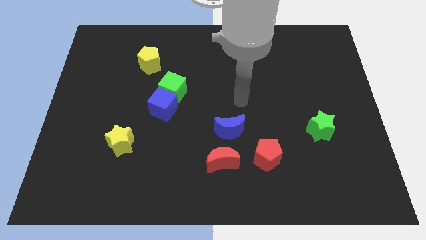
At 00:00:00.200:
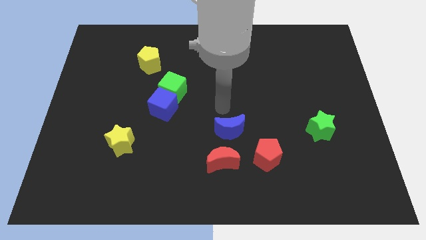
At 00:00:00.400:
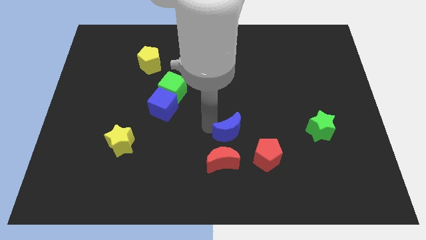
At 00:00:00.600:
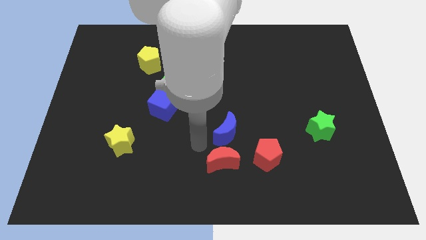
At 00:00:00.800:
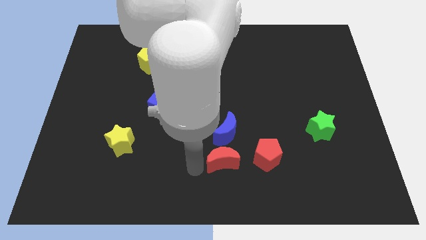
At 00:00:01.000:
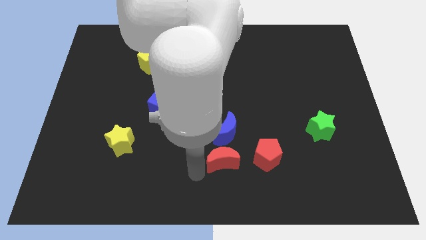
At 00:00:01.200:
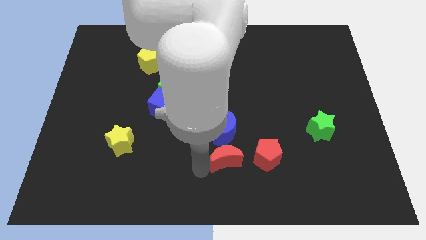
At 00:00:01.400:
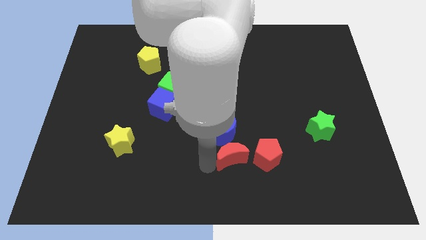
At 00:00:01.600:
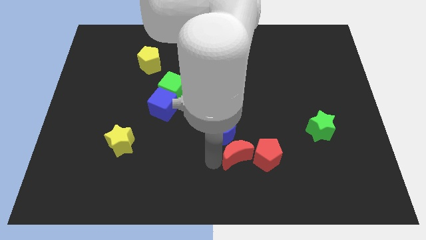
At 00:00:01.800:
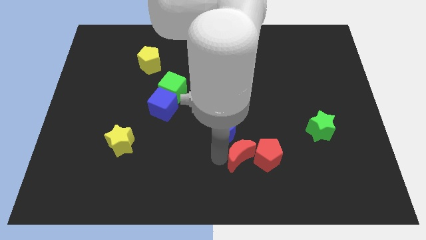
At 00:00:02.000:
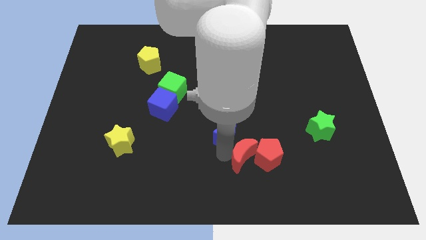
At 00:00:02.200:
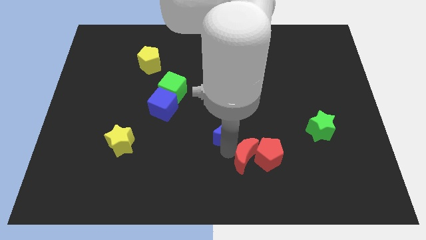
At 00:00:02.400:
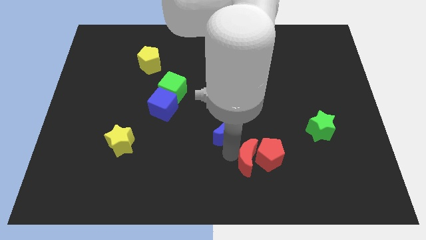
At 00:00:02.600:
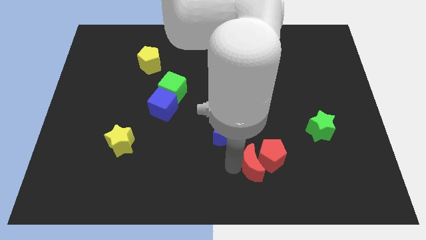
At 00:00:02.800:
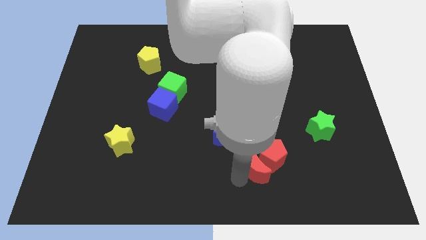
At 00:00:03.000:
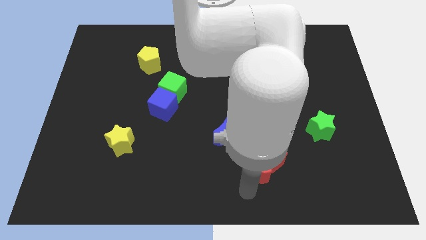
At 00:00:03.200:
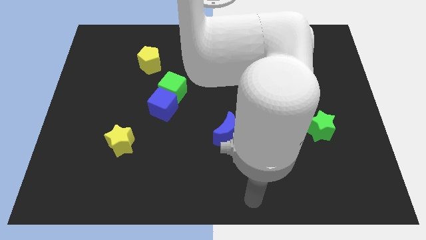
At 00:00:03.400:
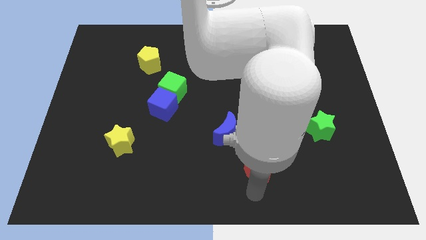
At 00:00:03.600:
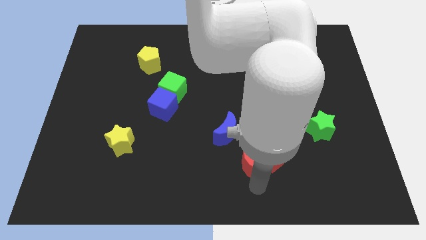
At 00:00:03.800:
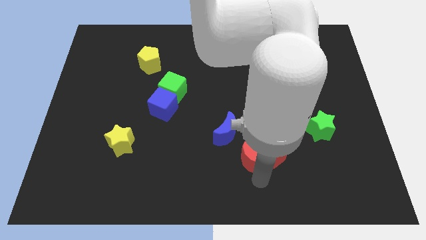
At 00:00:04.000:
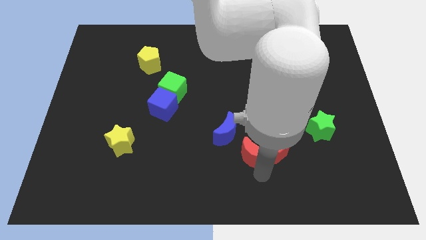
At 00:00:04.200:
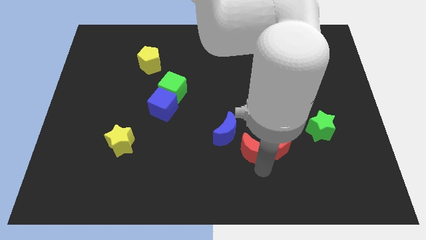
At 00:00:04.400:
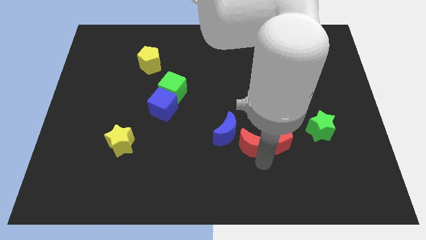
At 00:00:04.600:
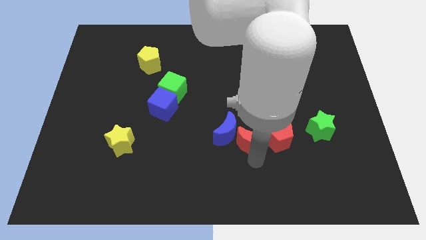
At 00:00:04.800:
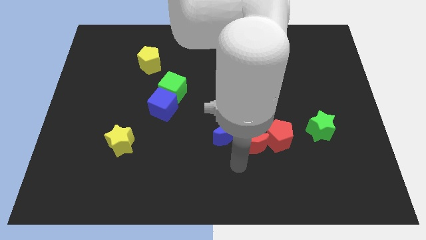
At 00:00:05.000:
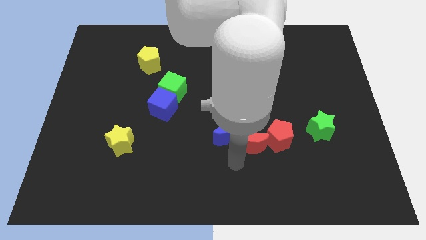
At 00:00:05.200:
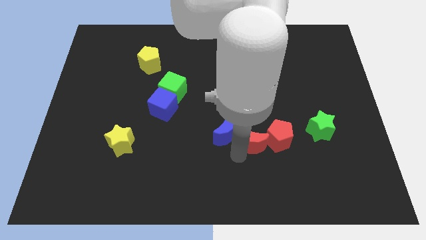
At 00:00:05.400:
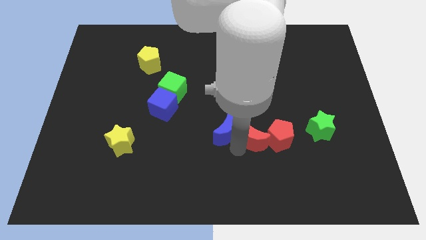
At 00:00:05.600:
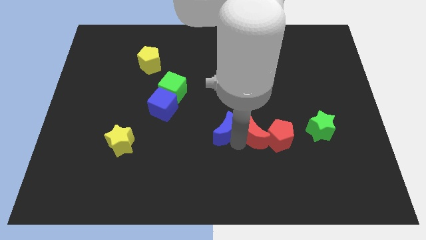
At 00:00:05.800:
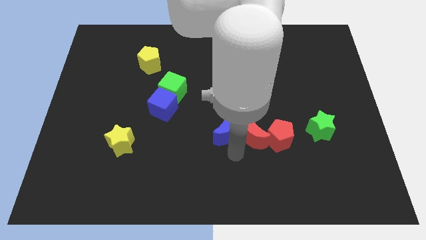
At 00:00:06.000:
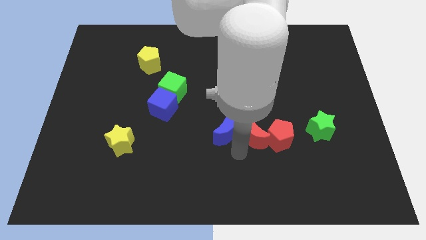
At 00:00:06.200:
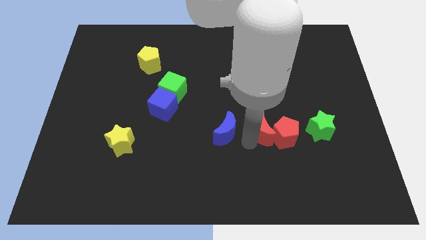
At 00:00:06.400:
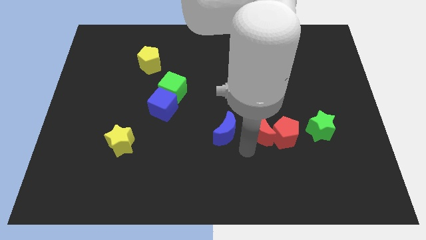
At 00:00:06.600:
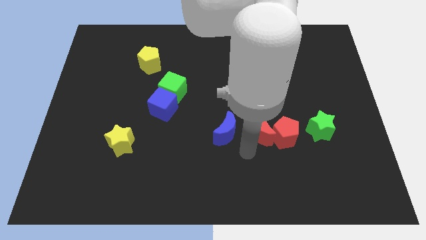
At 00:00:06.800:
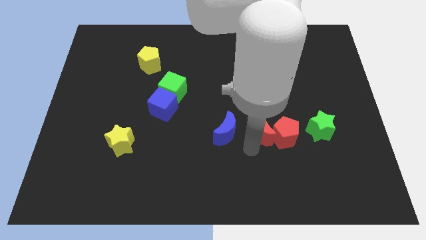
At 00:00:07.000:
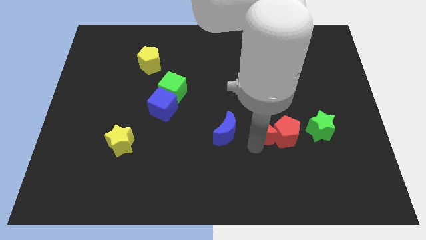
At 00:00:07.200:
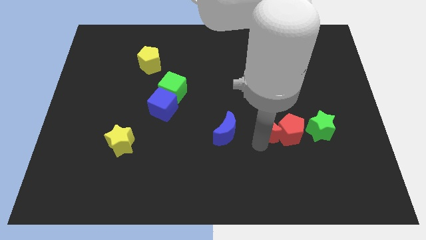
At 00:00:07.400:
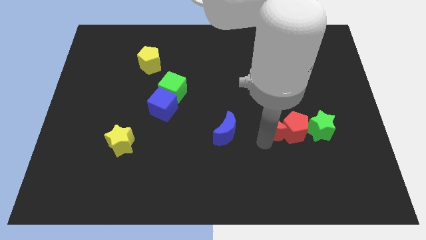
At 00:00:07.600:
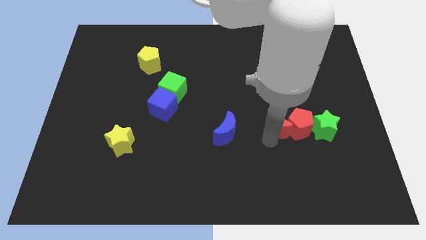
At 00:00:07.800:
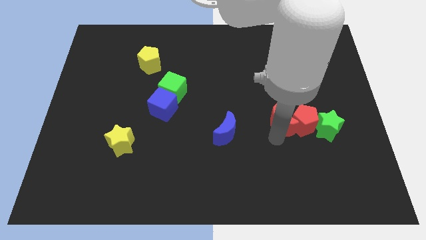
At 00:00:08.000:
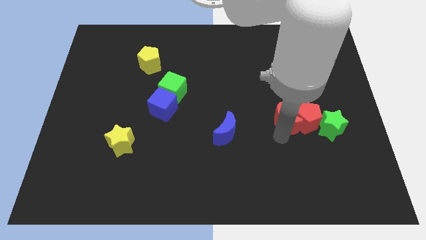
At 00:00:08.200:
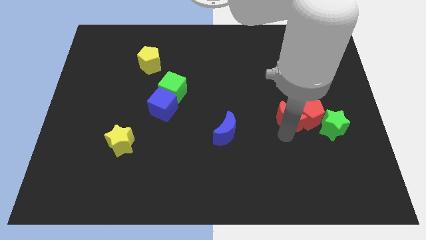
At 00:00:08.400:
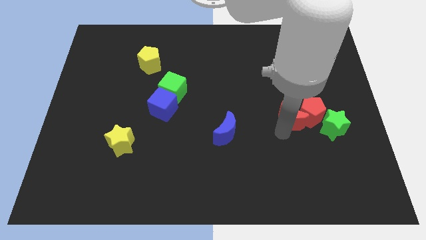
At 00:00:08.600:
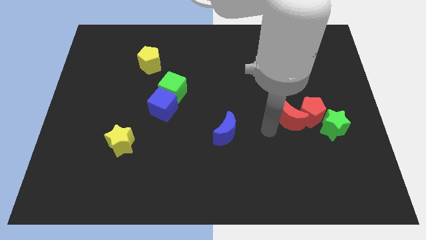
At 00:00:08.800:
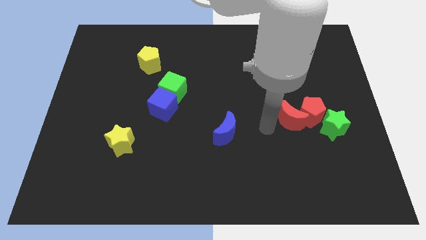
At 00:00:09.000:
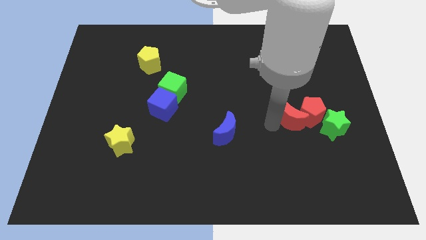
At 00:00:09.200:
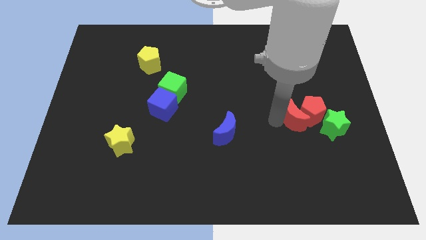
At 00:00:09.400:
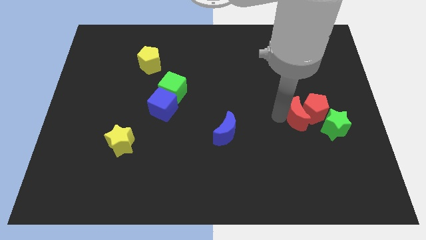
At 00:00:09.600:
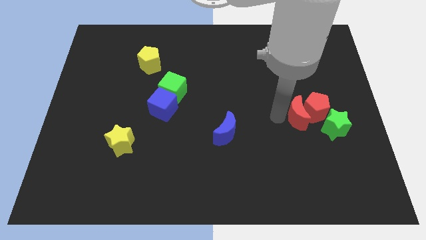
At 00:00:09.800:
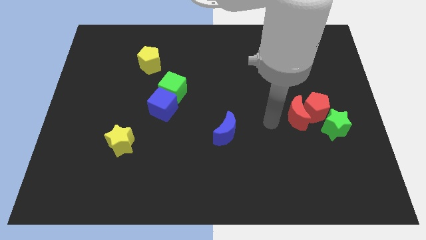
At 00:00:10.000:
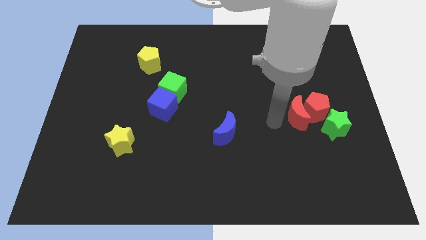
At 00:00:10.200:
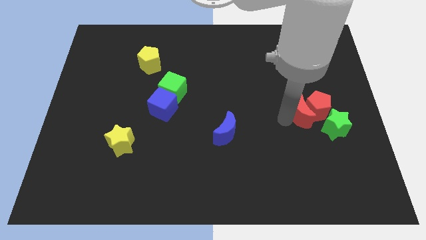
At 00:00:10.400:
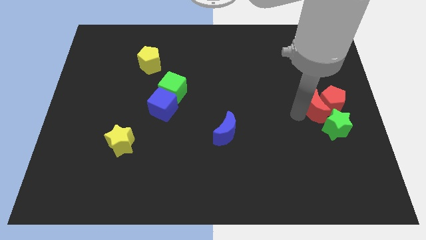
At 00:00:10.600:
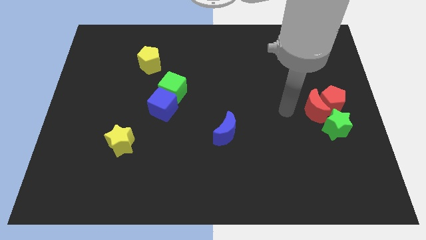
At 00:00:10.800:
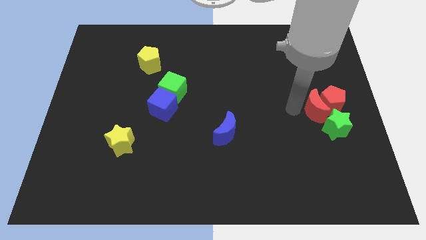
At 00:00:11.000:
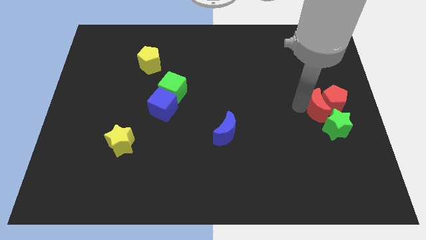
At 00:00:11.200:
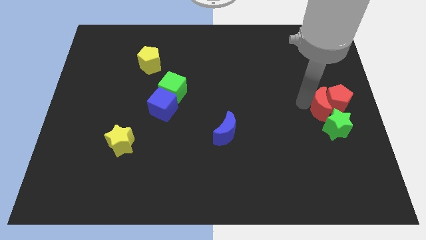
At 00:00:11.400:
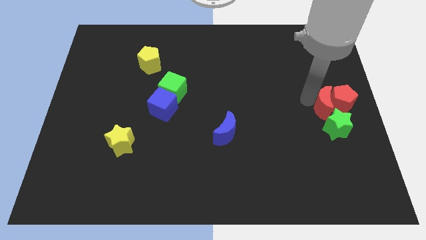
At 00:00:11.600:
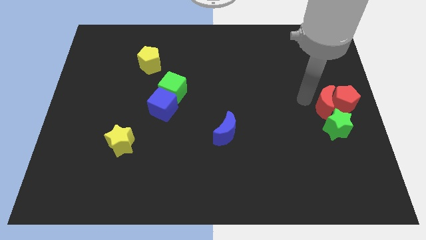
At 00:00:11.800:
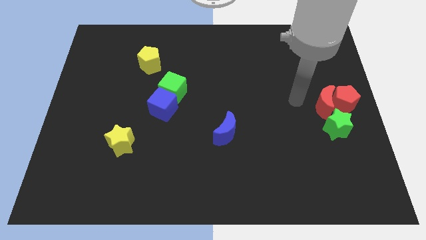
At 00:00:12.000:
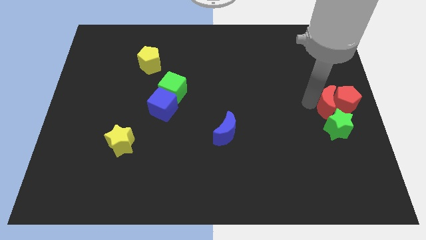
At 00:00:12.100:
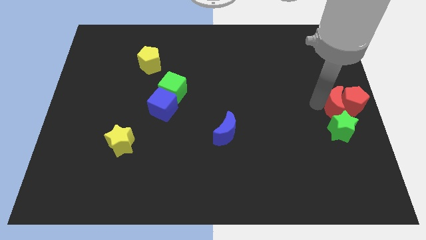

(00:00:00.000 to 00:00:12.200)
move the red moon to the top right of the green star

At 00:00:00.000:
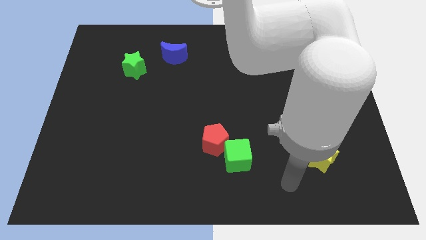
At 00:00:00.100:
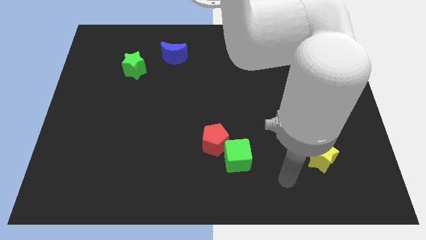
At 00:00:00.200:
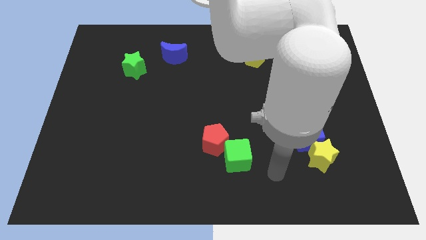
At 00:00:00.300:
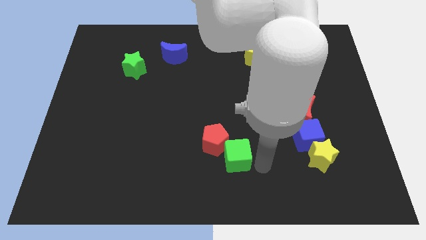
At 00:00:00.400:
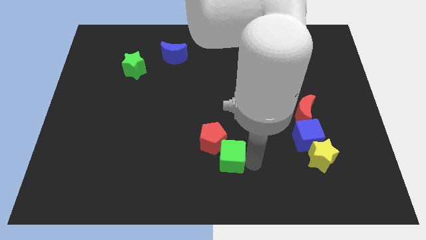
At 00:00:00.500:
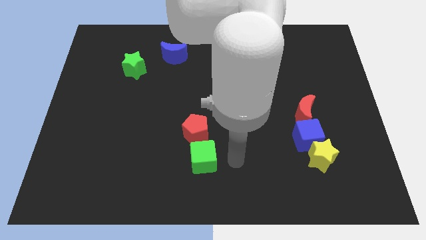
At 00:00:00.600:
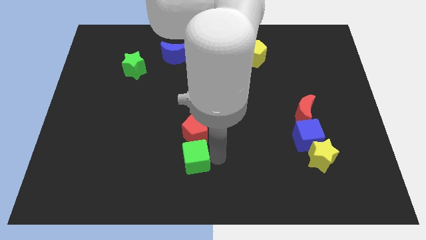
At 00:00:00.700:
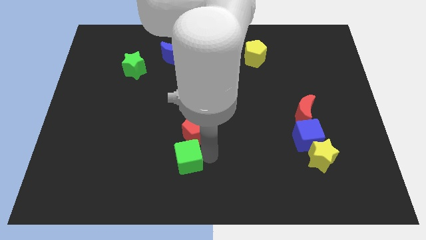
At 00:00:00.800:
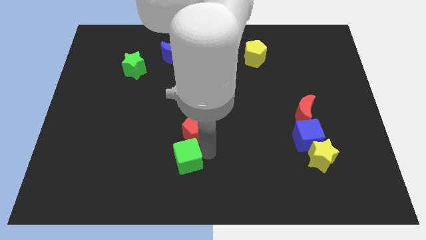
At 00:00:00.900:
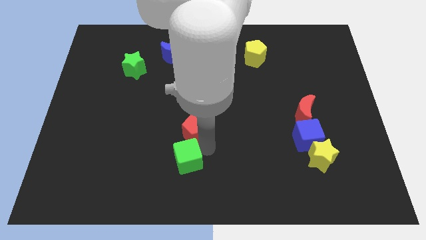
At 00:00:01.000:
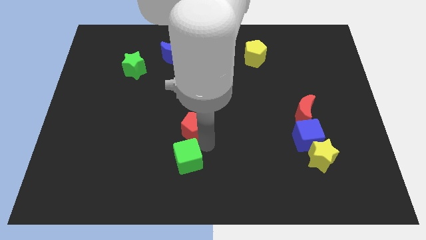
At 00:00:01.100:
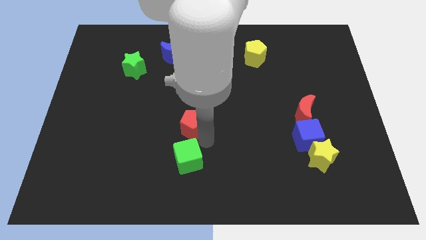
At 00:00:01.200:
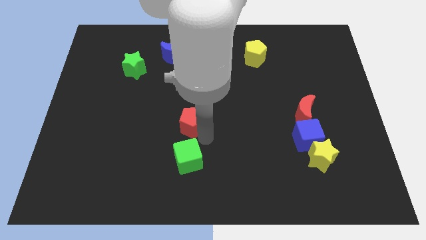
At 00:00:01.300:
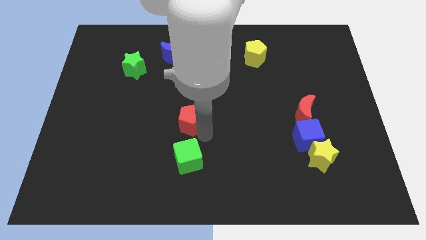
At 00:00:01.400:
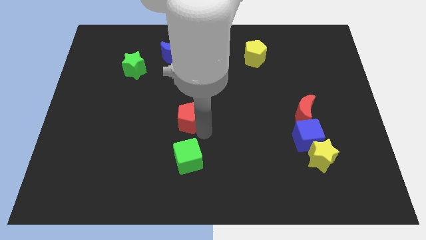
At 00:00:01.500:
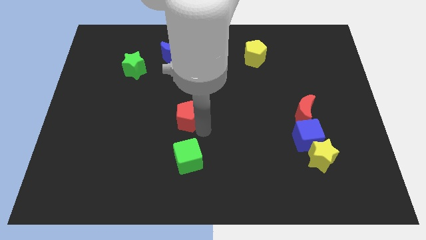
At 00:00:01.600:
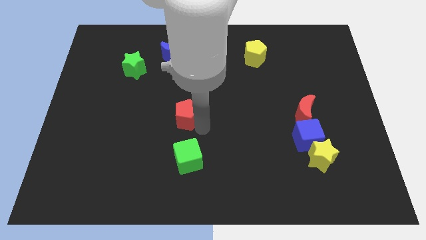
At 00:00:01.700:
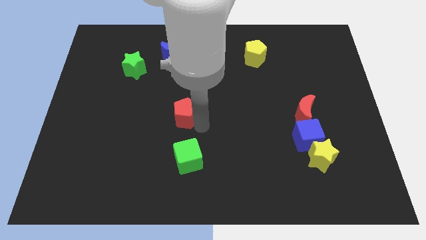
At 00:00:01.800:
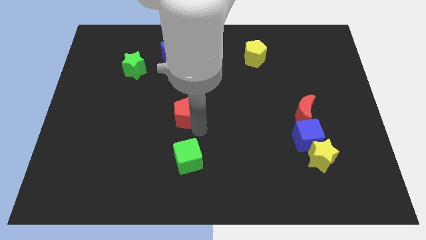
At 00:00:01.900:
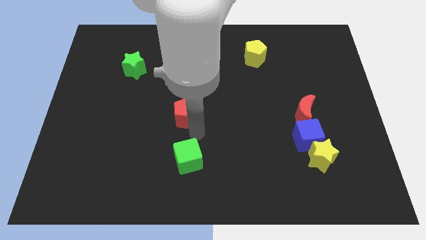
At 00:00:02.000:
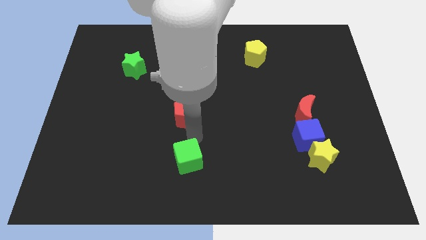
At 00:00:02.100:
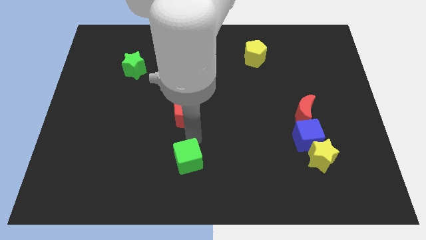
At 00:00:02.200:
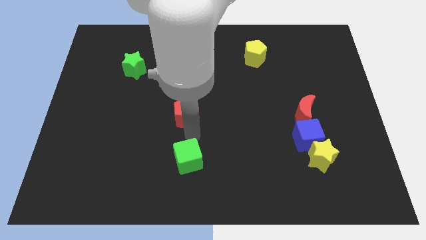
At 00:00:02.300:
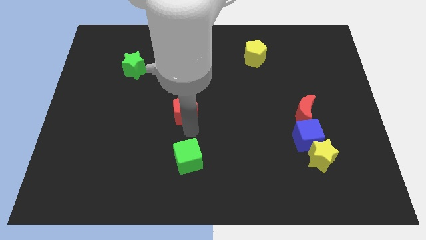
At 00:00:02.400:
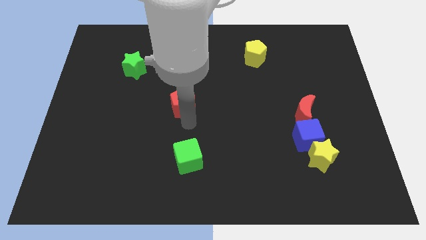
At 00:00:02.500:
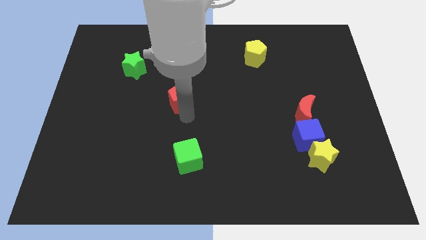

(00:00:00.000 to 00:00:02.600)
push the red pentagon to the bottom of the blue moon
